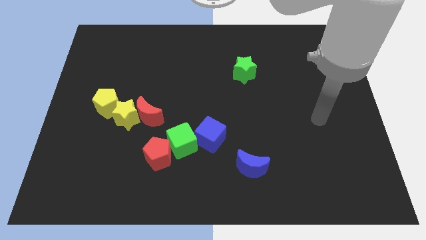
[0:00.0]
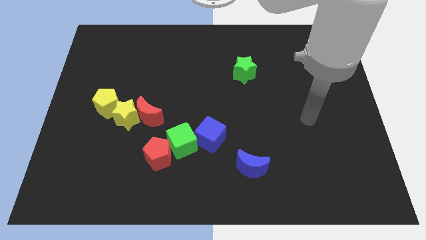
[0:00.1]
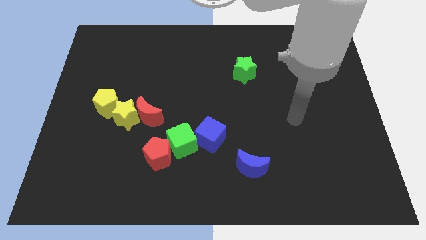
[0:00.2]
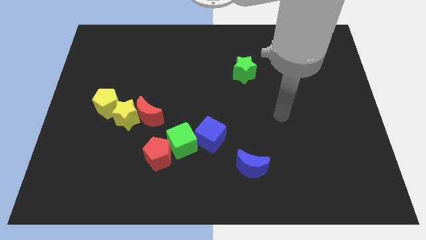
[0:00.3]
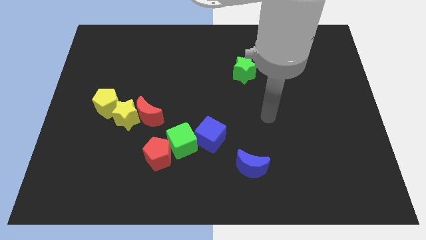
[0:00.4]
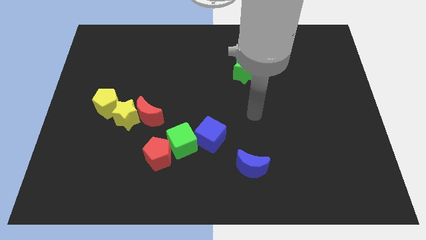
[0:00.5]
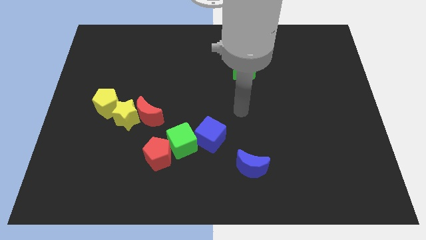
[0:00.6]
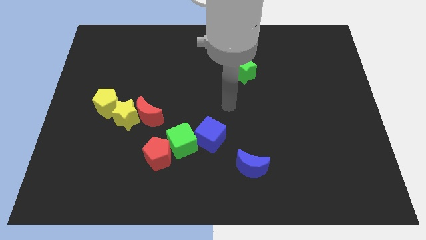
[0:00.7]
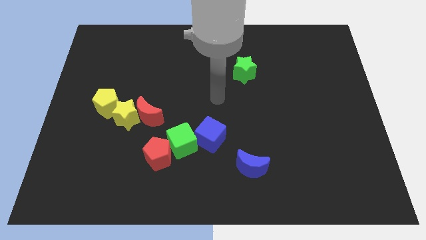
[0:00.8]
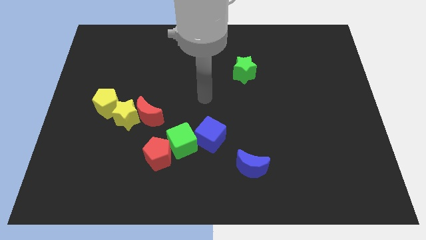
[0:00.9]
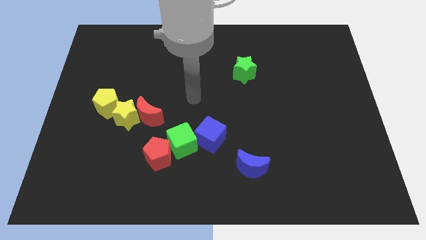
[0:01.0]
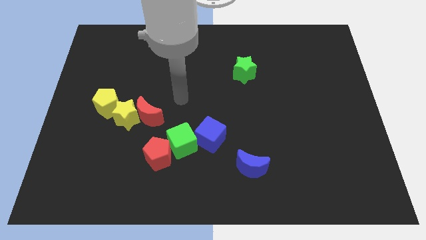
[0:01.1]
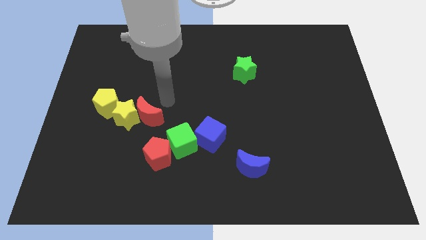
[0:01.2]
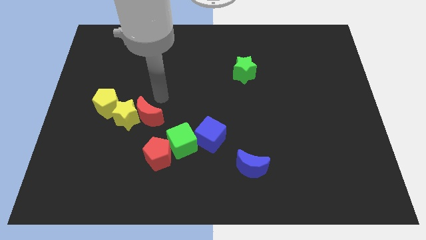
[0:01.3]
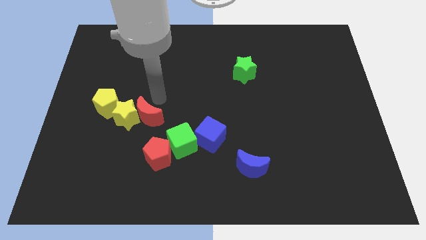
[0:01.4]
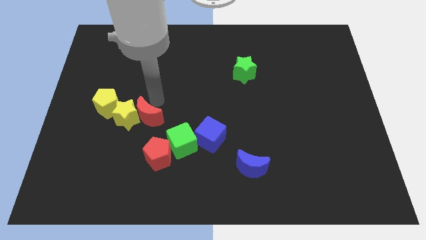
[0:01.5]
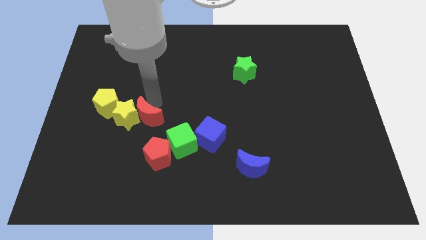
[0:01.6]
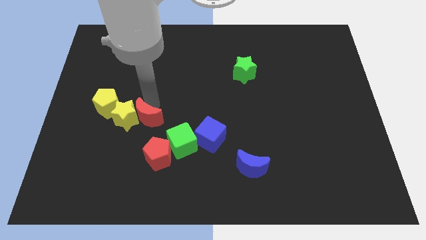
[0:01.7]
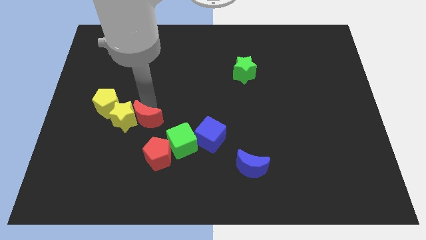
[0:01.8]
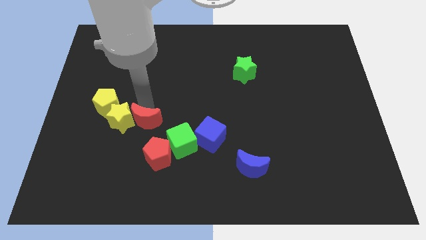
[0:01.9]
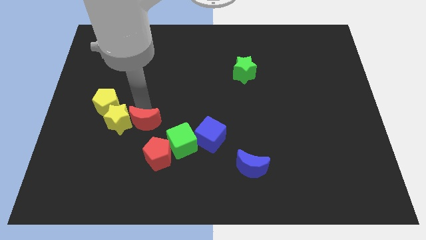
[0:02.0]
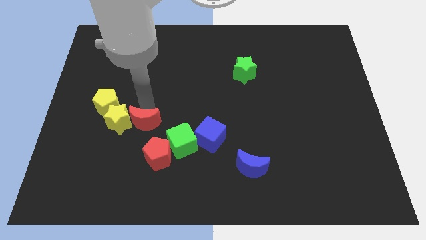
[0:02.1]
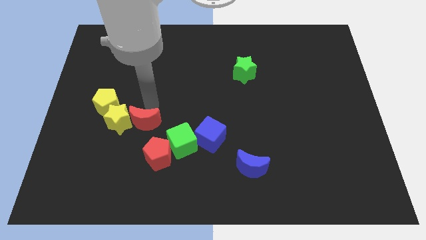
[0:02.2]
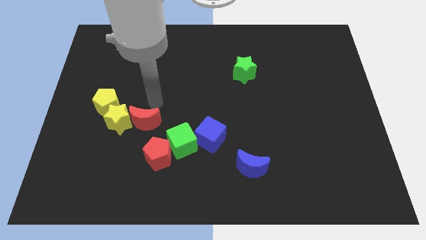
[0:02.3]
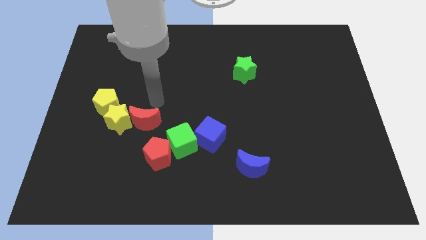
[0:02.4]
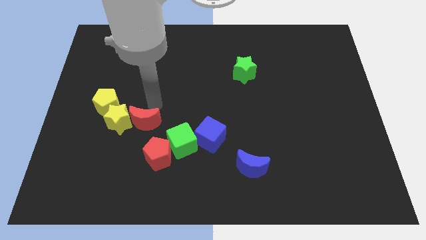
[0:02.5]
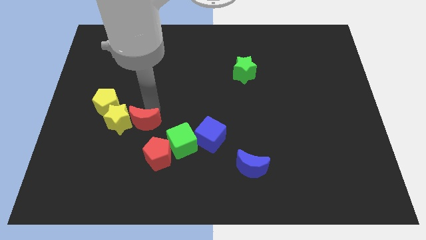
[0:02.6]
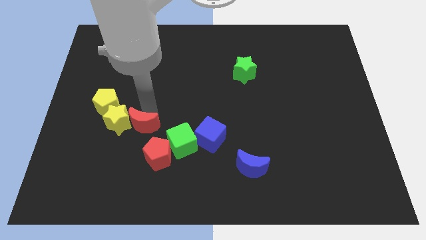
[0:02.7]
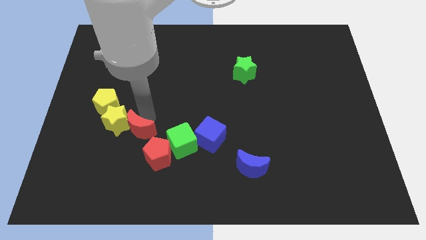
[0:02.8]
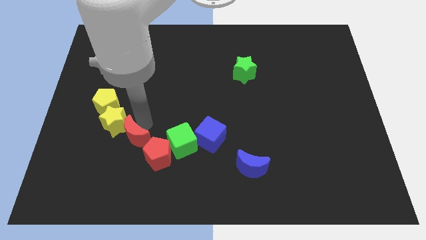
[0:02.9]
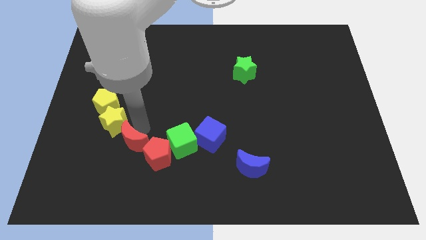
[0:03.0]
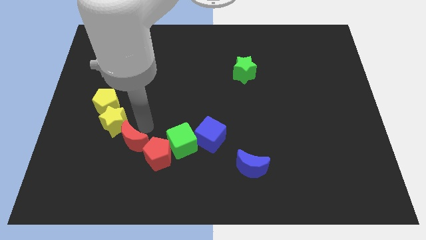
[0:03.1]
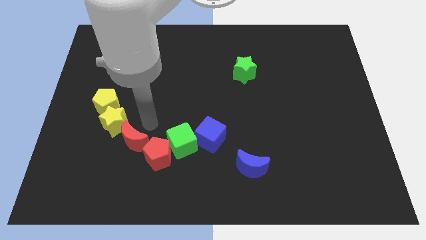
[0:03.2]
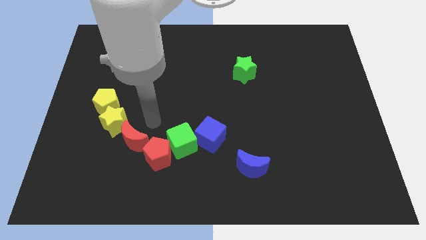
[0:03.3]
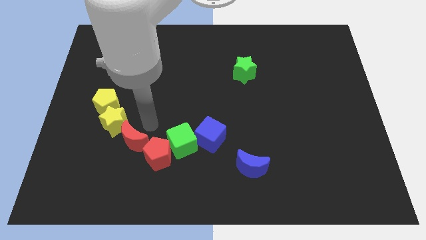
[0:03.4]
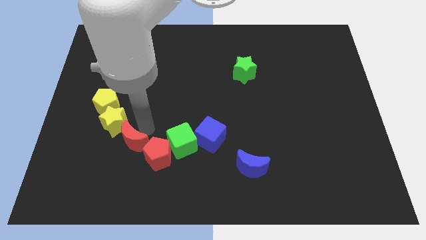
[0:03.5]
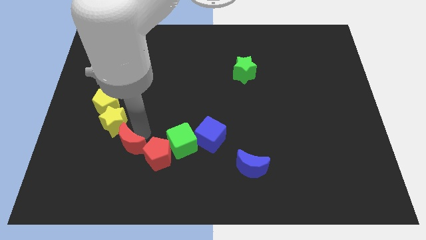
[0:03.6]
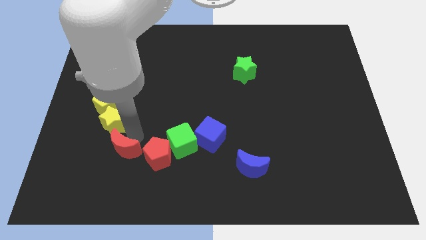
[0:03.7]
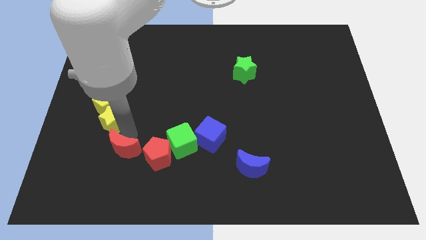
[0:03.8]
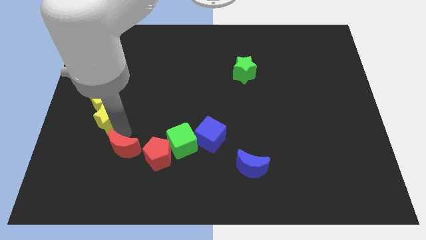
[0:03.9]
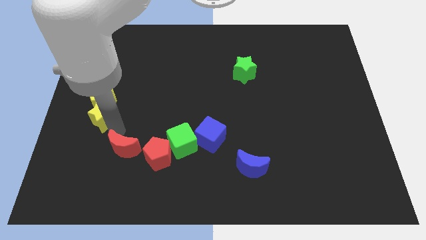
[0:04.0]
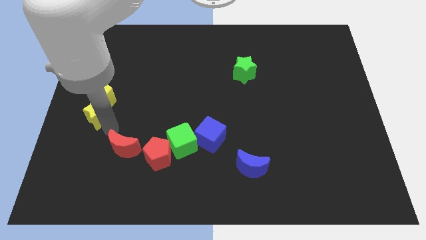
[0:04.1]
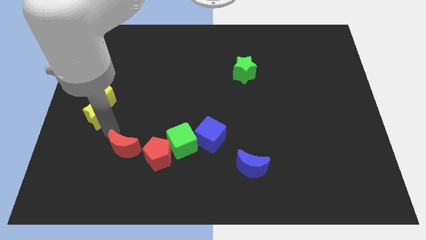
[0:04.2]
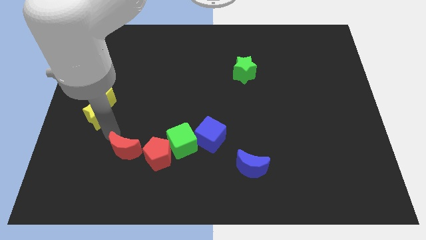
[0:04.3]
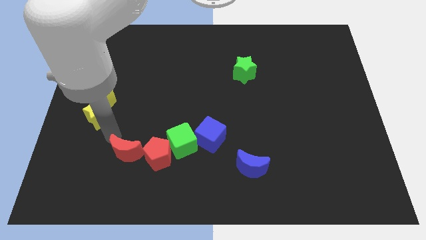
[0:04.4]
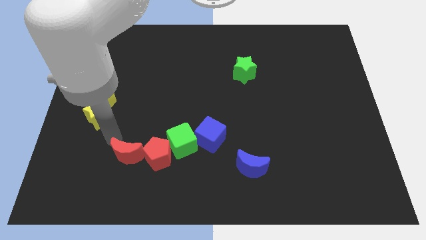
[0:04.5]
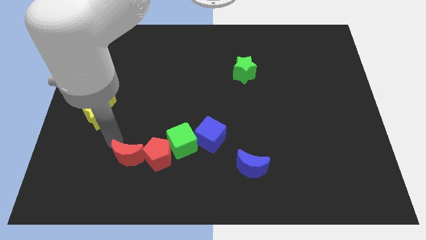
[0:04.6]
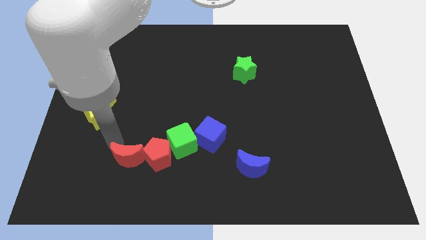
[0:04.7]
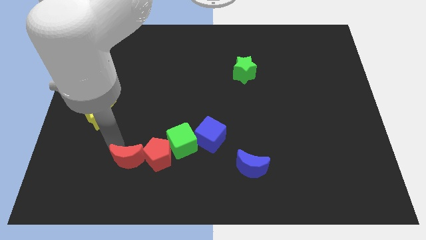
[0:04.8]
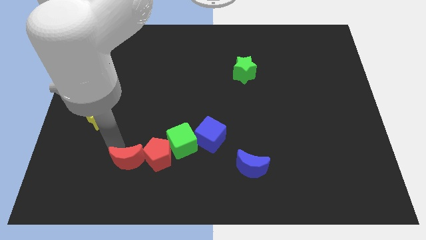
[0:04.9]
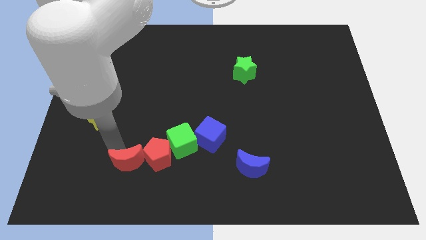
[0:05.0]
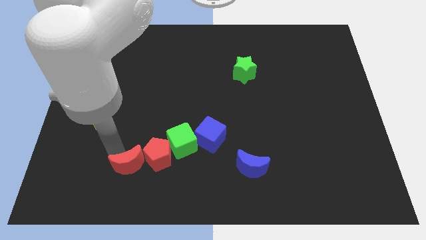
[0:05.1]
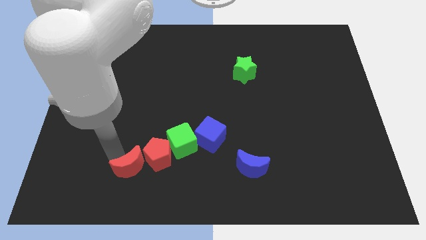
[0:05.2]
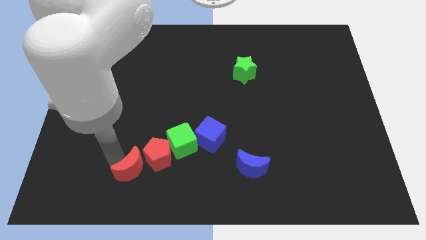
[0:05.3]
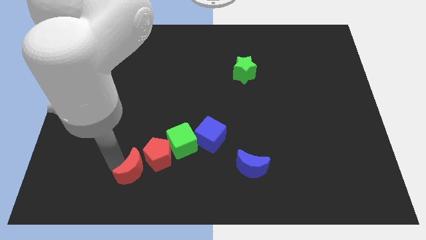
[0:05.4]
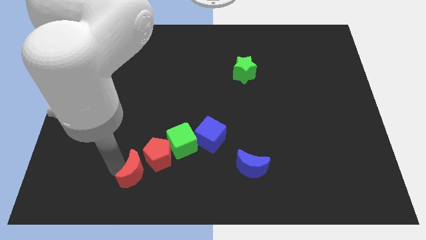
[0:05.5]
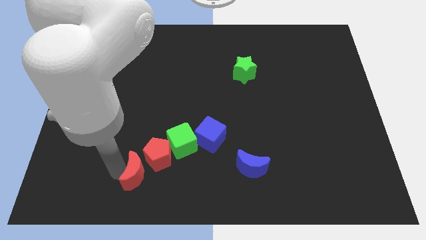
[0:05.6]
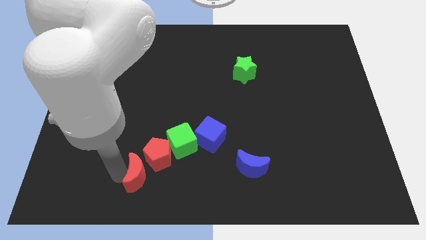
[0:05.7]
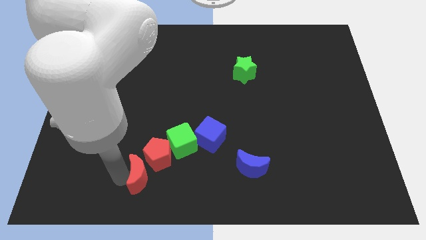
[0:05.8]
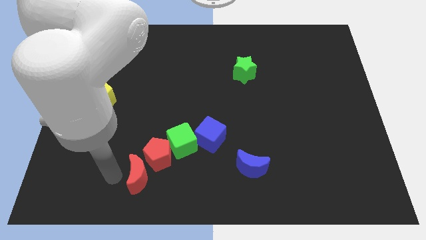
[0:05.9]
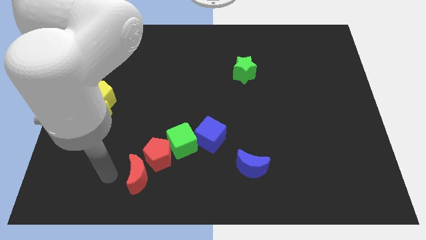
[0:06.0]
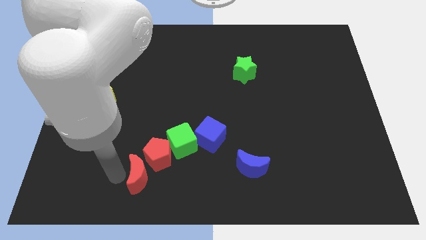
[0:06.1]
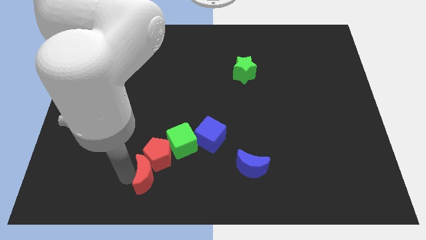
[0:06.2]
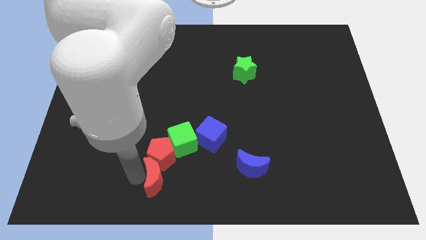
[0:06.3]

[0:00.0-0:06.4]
put the red moon to the bottom right side of the red pentagon

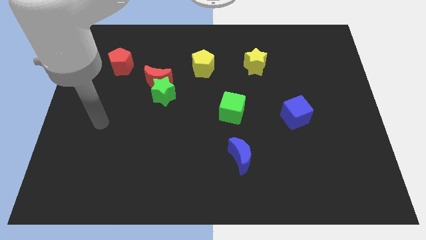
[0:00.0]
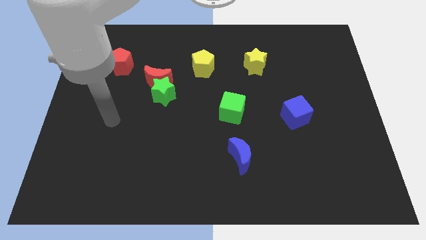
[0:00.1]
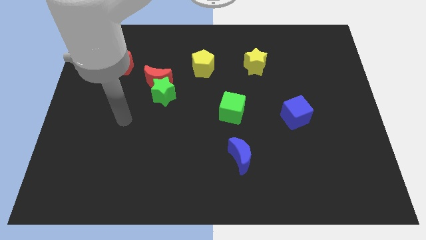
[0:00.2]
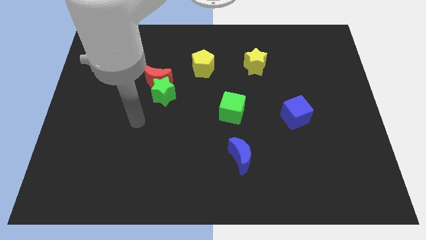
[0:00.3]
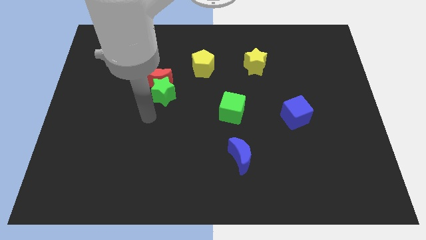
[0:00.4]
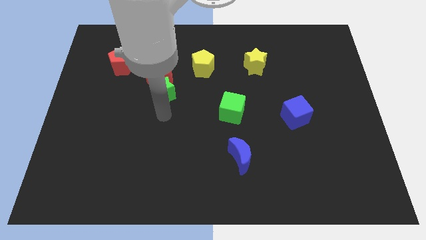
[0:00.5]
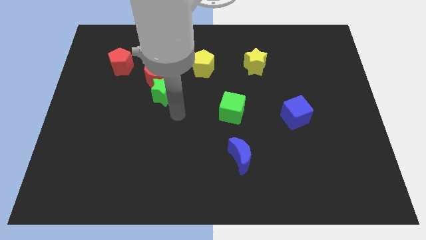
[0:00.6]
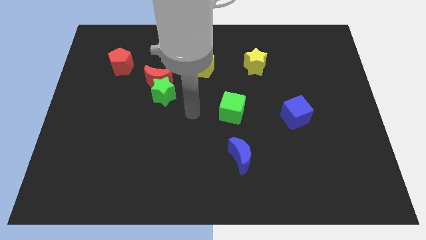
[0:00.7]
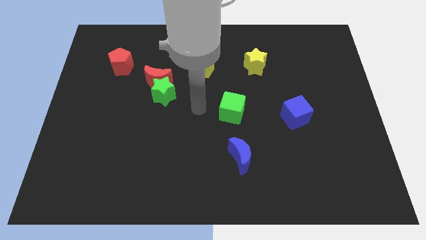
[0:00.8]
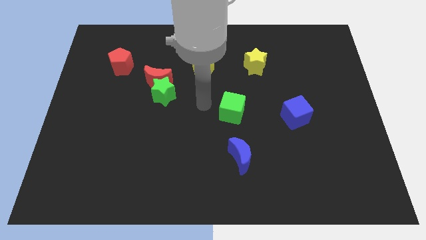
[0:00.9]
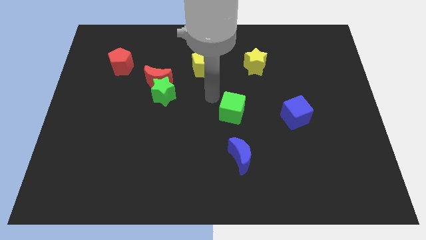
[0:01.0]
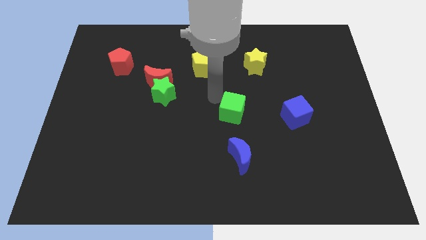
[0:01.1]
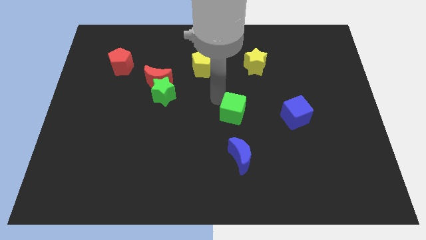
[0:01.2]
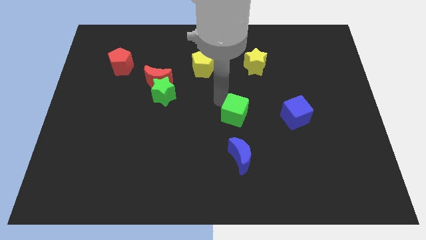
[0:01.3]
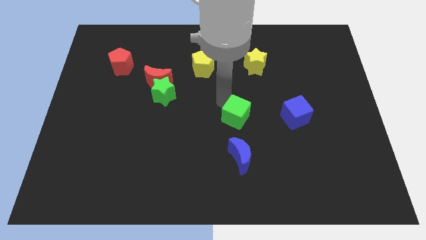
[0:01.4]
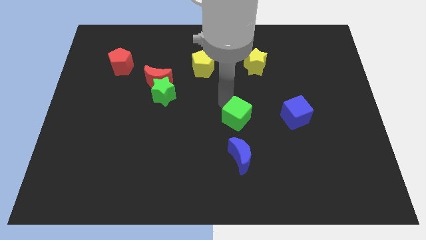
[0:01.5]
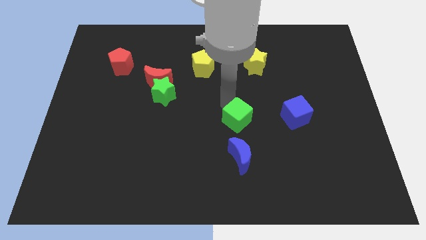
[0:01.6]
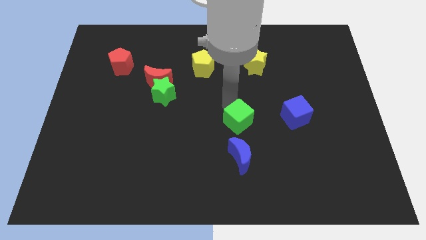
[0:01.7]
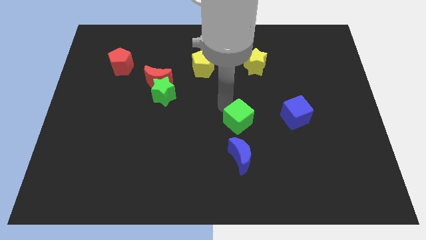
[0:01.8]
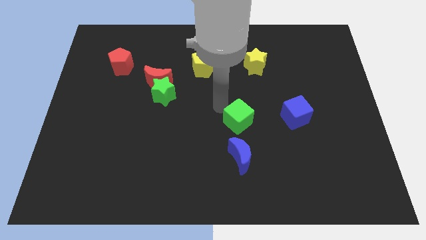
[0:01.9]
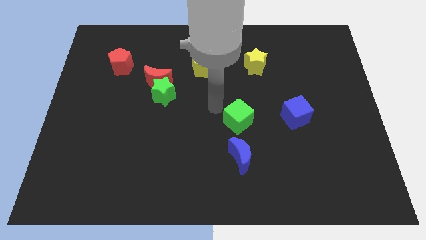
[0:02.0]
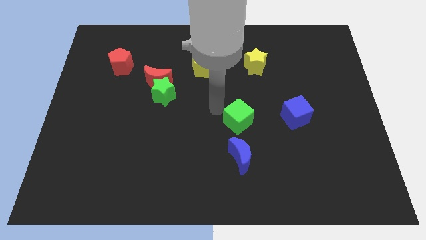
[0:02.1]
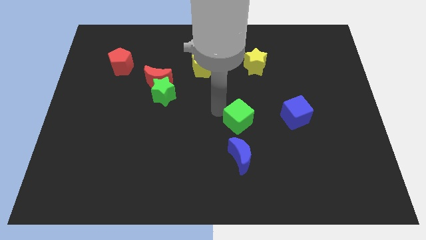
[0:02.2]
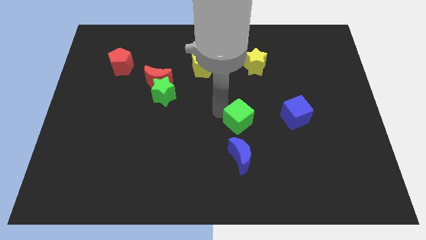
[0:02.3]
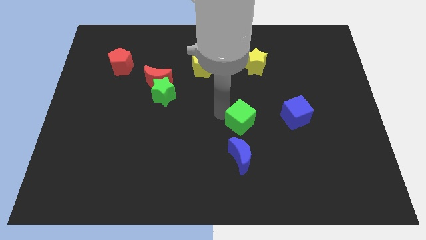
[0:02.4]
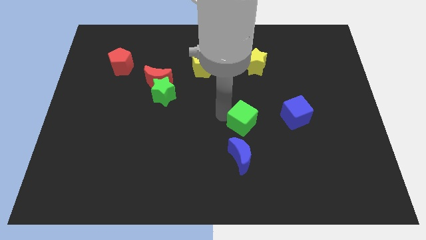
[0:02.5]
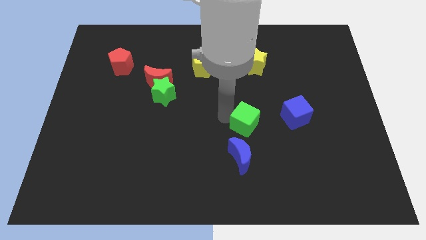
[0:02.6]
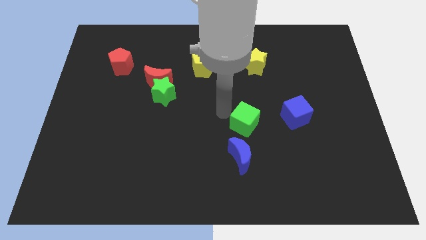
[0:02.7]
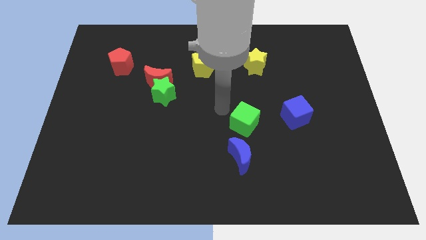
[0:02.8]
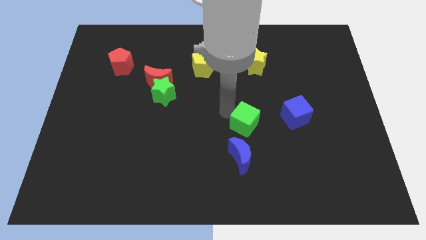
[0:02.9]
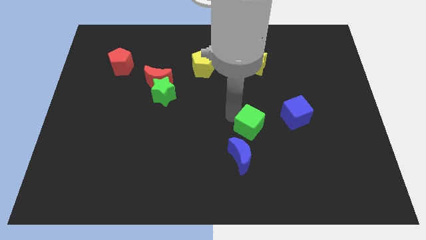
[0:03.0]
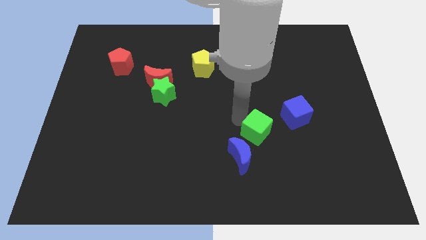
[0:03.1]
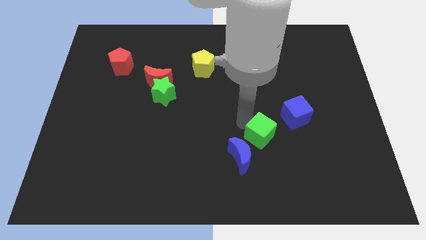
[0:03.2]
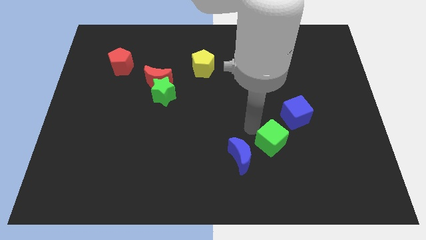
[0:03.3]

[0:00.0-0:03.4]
put the green cube to the right side of the blue moon
